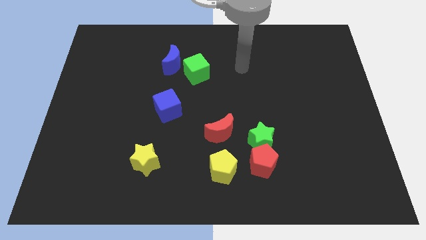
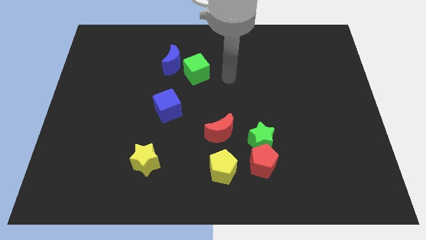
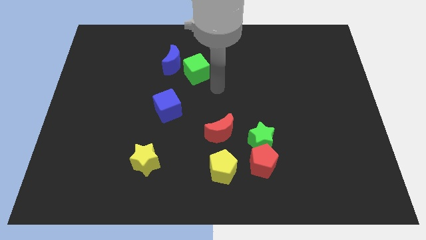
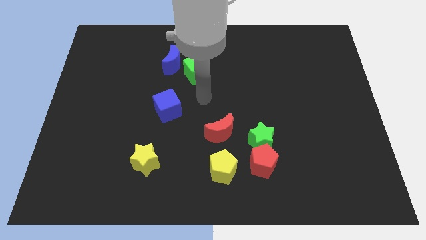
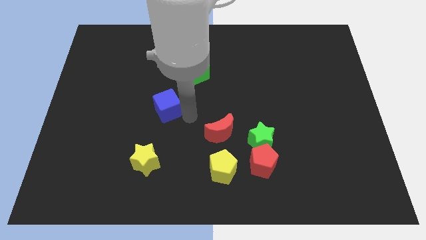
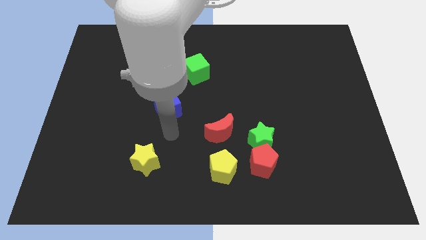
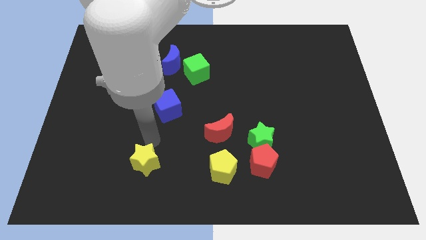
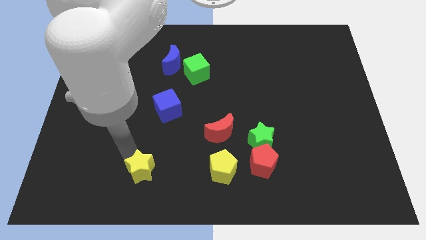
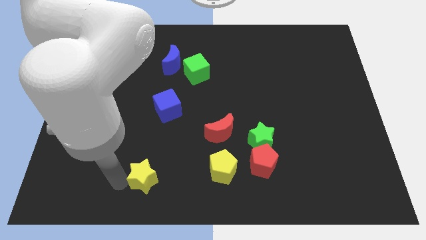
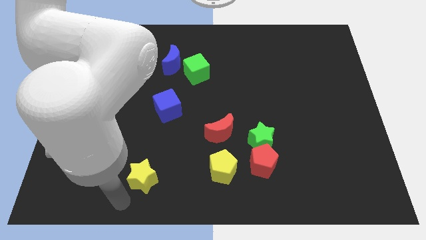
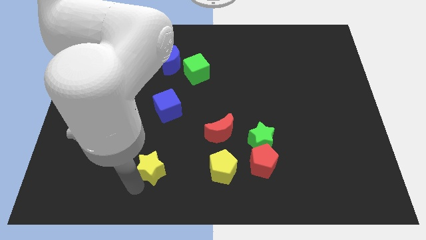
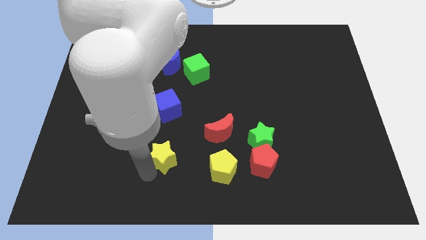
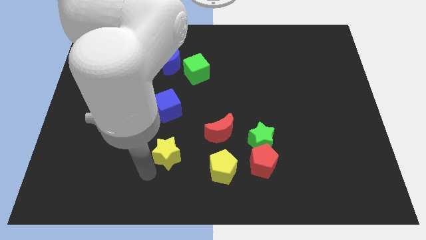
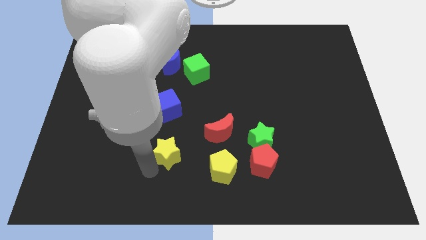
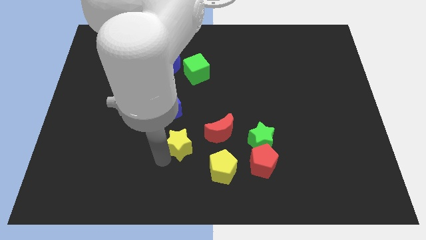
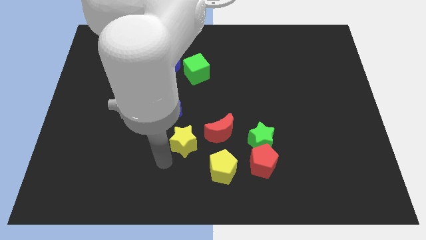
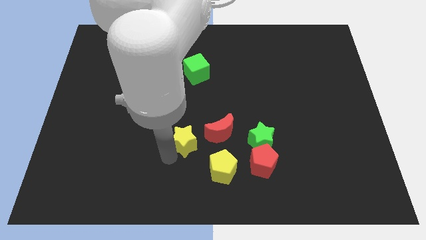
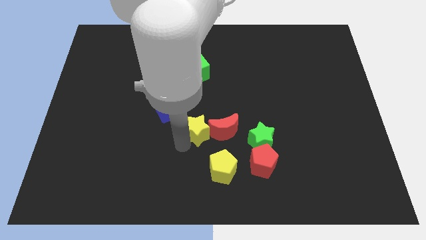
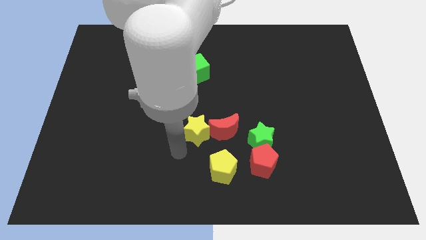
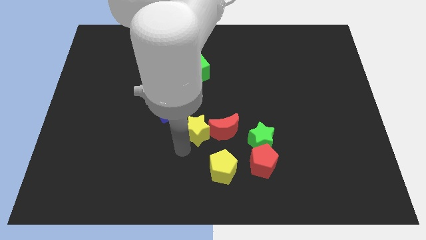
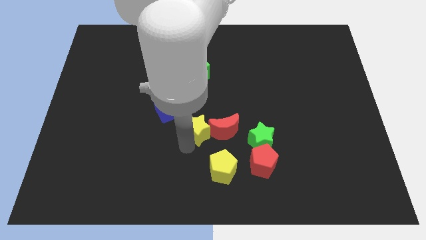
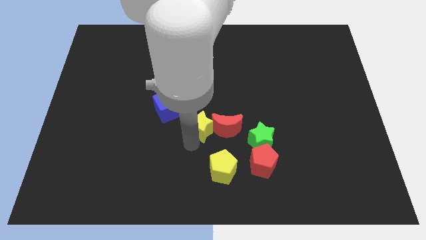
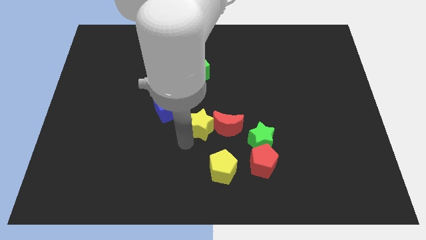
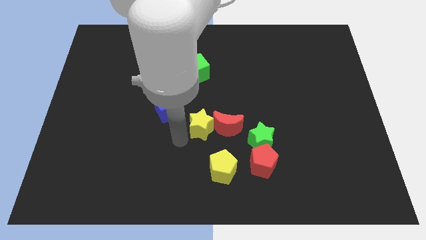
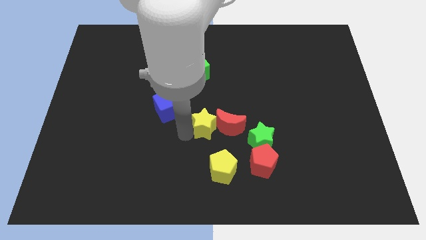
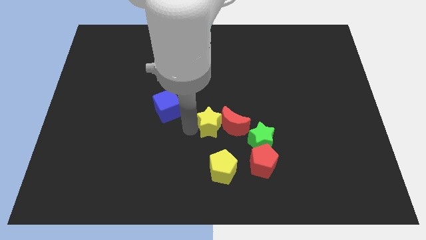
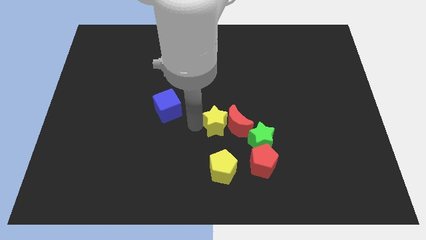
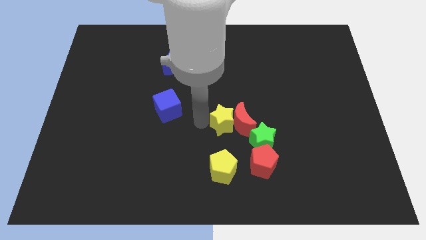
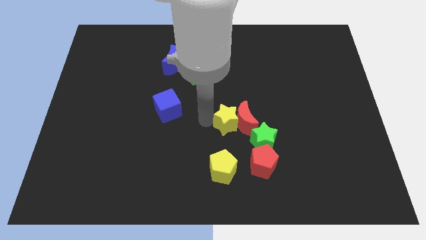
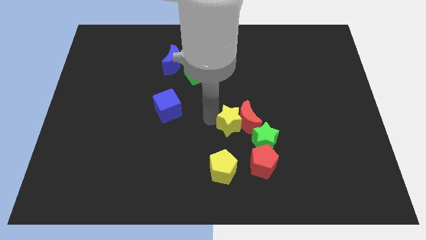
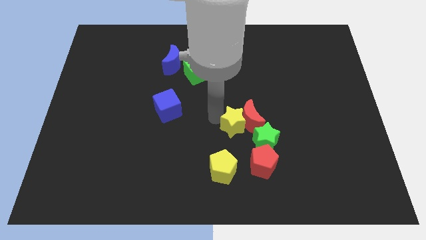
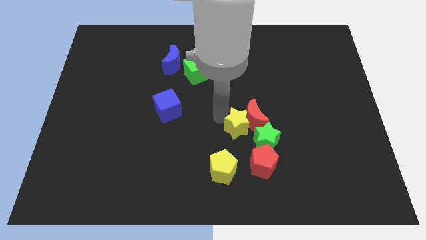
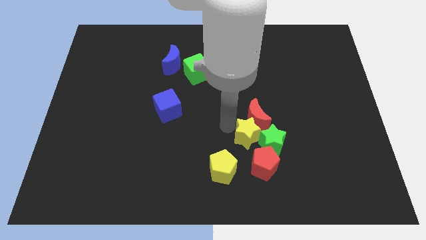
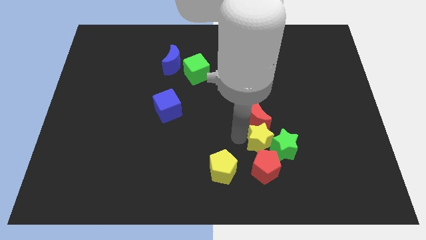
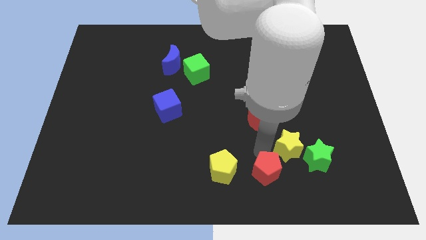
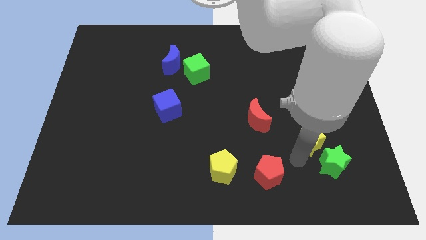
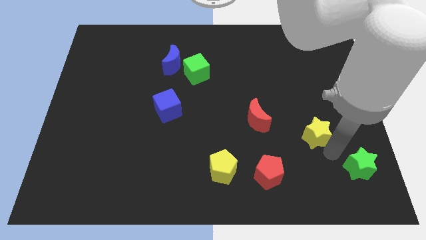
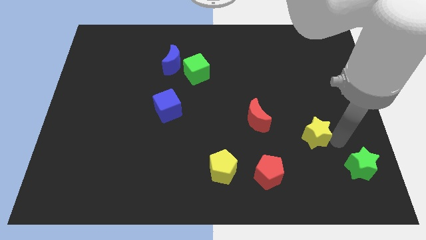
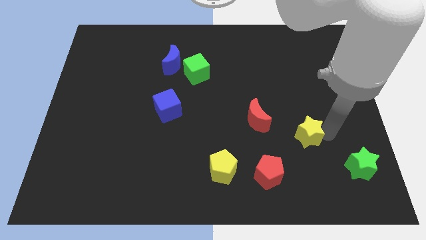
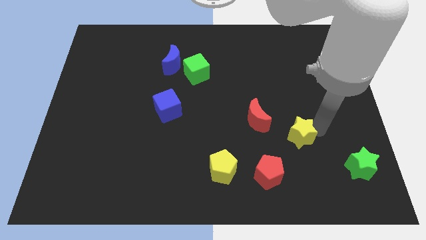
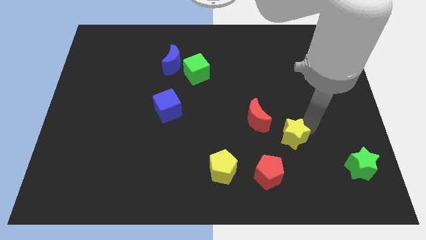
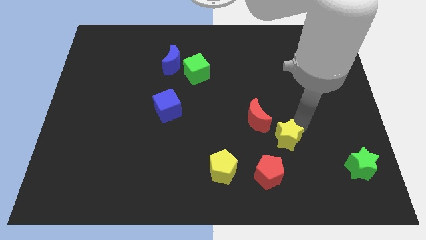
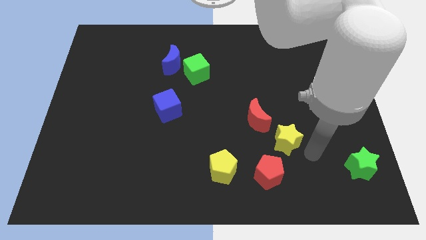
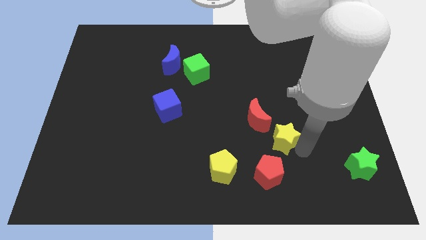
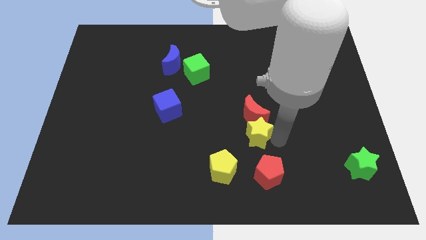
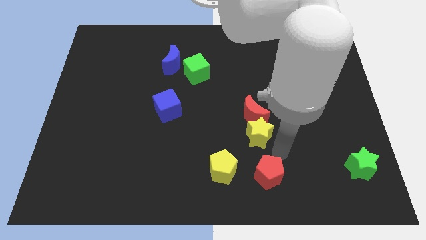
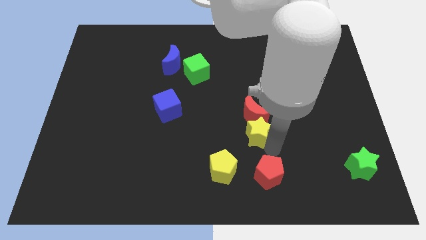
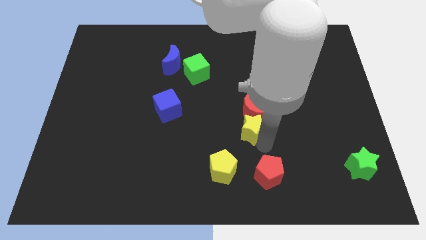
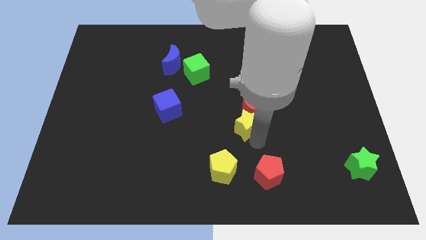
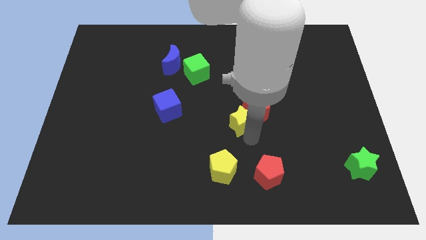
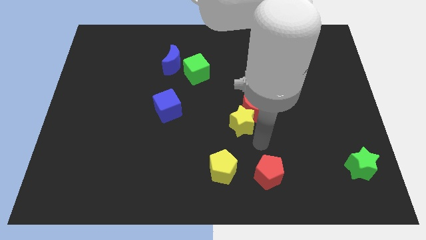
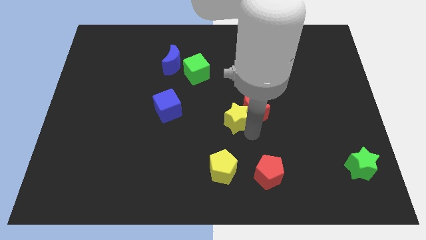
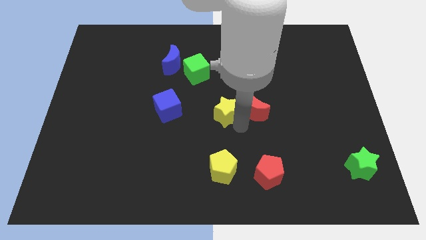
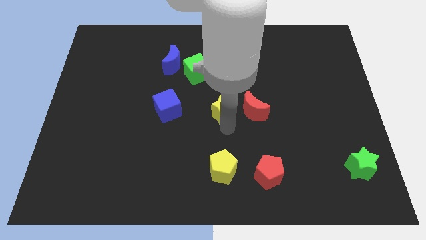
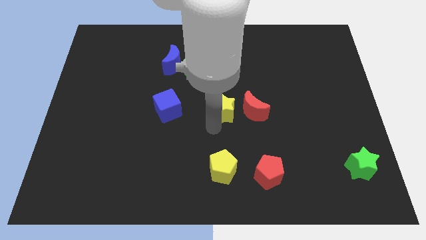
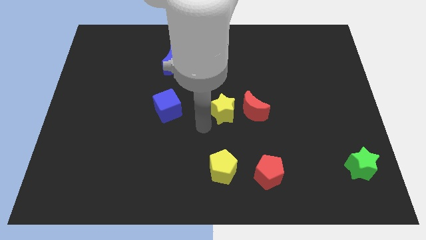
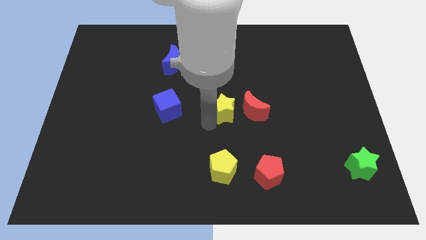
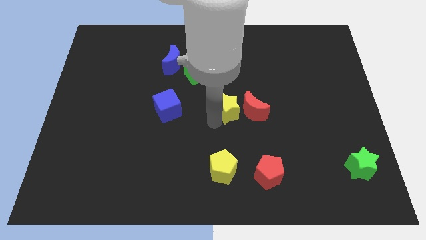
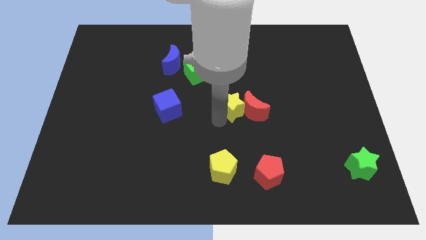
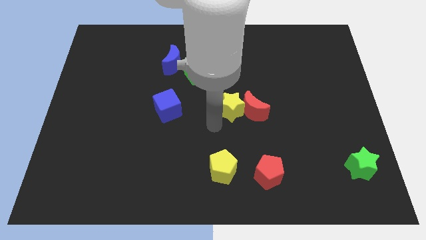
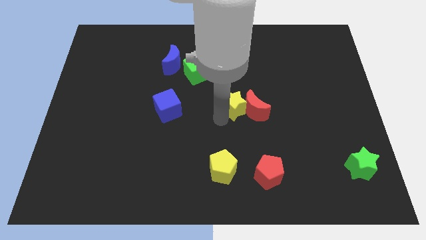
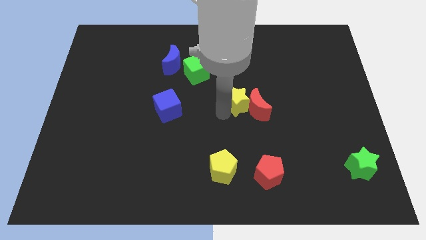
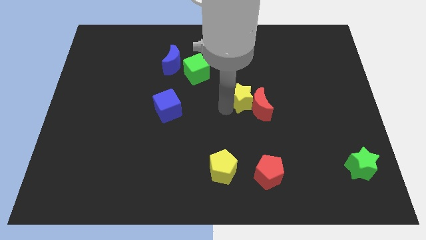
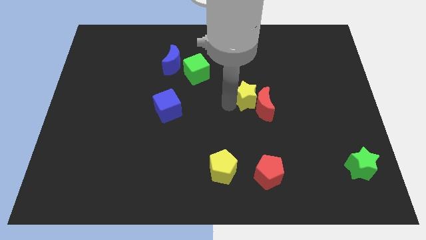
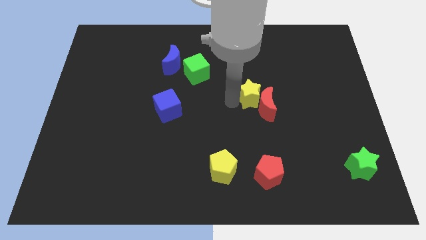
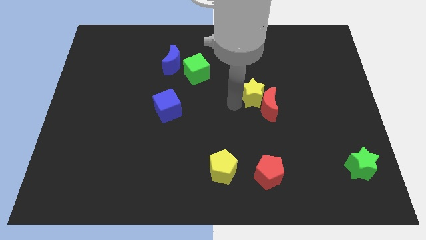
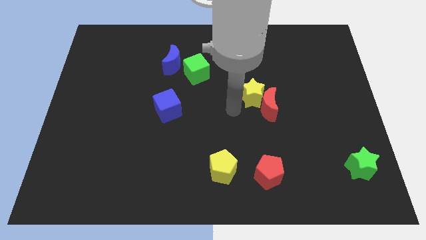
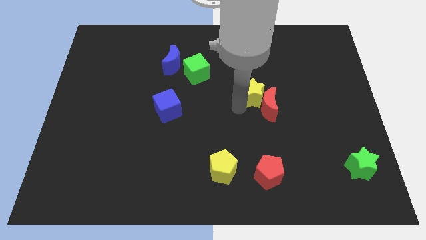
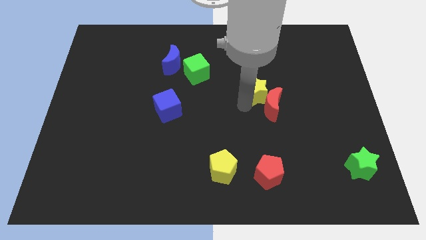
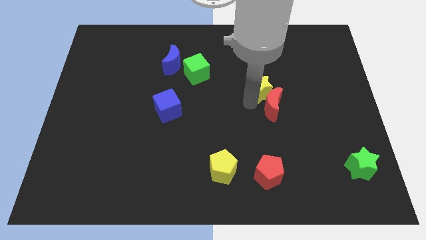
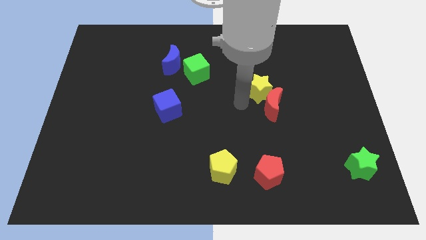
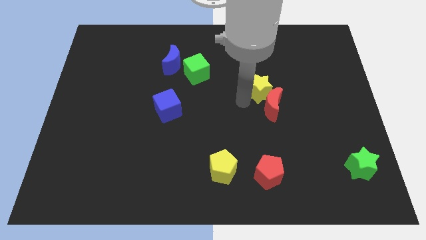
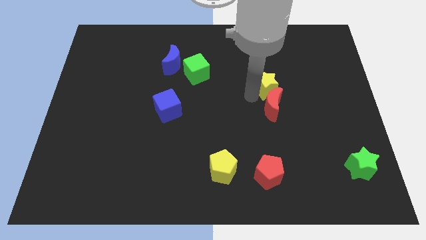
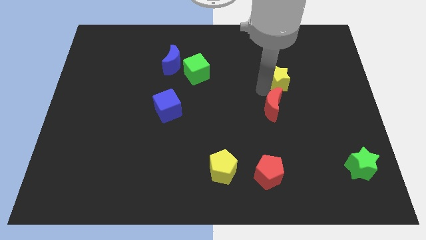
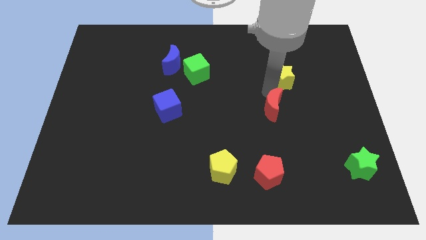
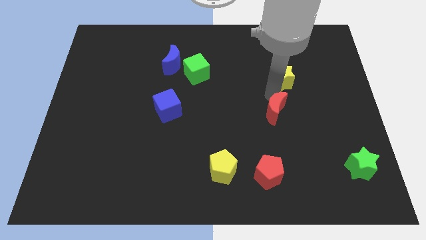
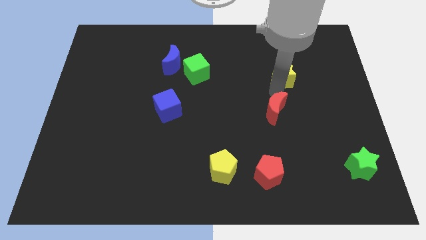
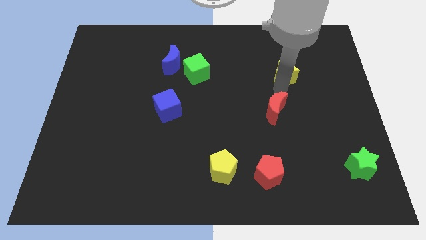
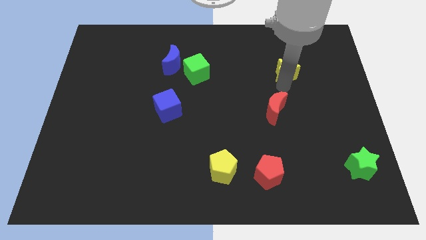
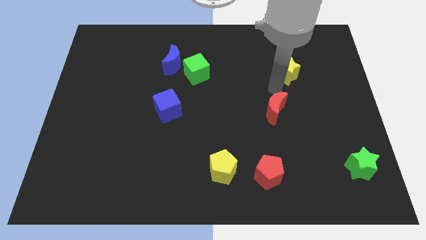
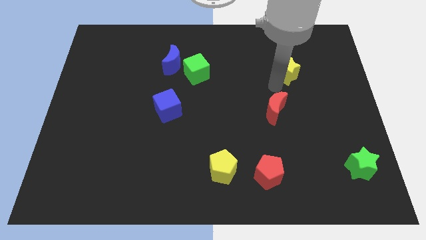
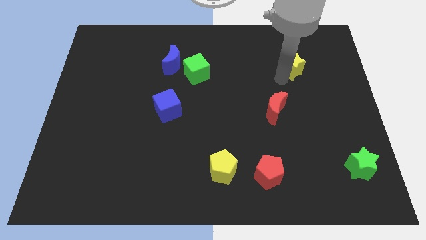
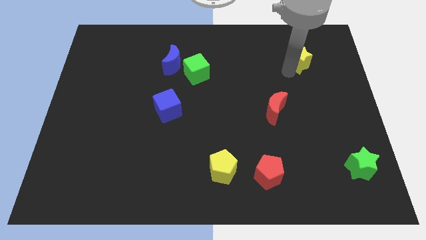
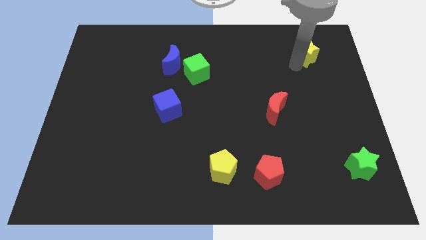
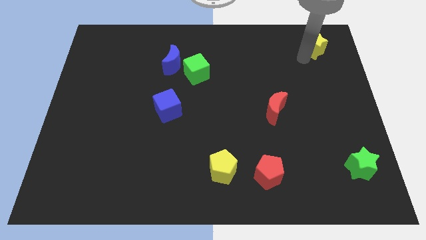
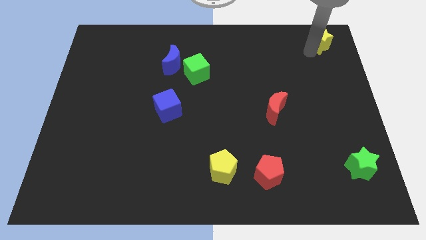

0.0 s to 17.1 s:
push the yellow star to the top right
